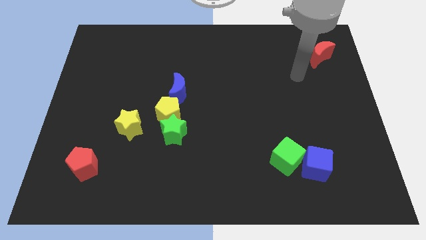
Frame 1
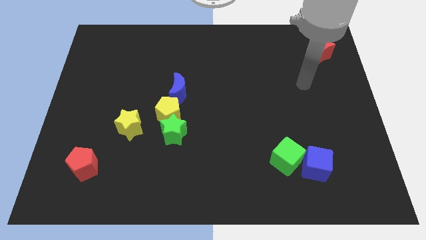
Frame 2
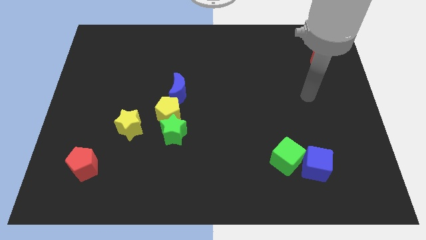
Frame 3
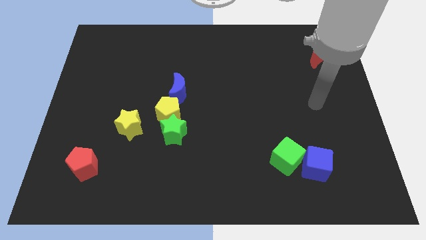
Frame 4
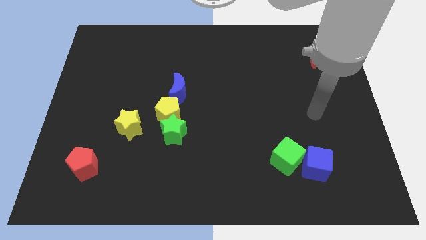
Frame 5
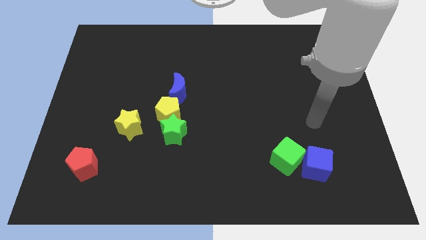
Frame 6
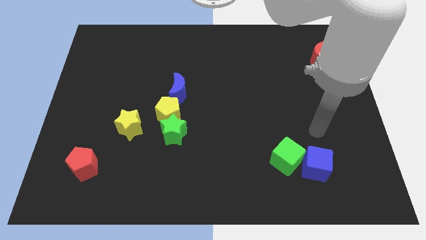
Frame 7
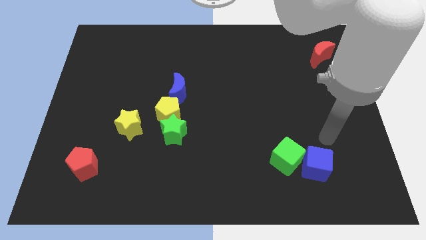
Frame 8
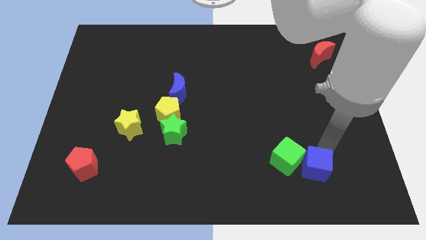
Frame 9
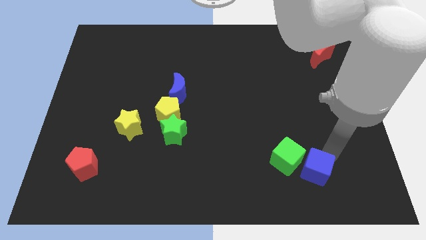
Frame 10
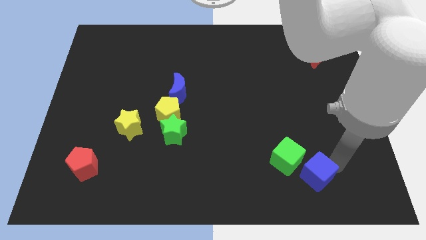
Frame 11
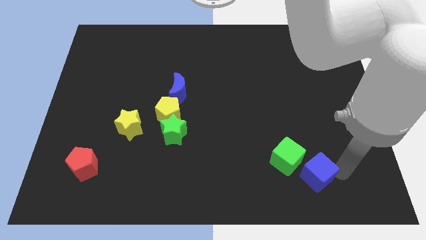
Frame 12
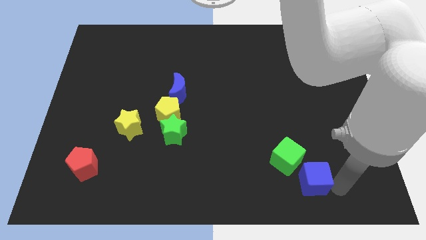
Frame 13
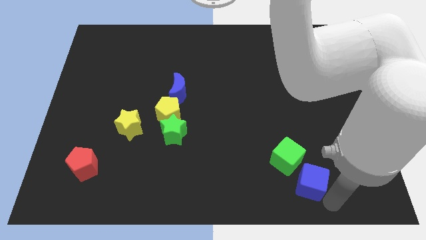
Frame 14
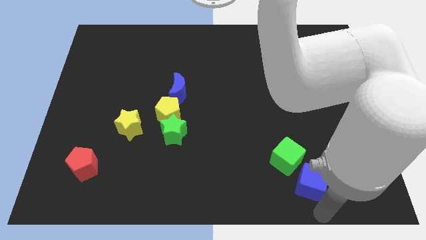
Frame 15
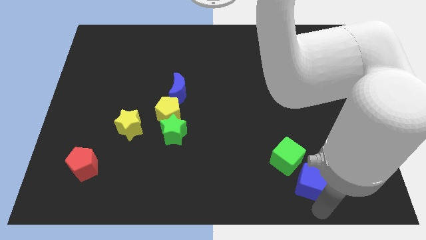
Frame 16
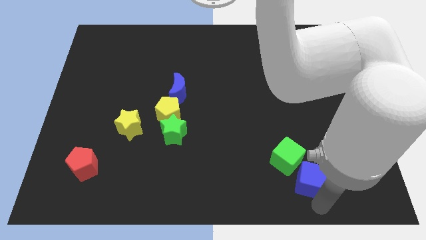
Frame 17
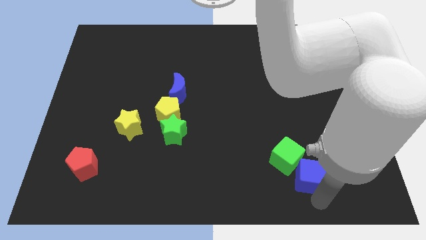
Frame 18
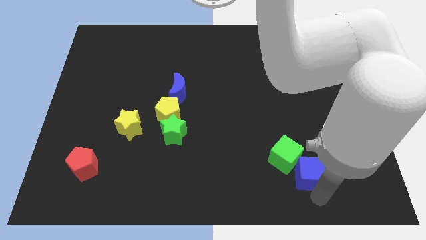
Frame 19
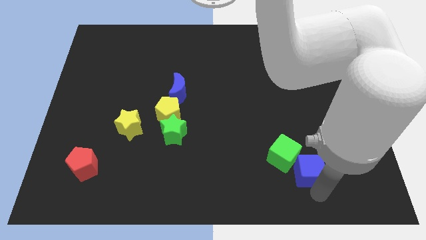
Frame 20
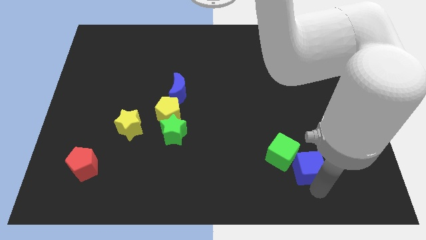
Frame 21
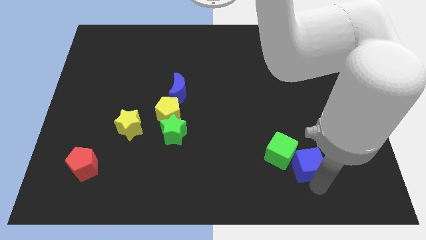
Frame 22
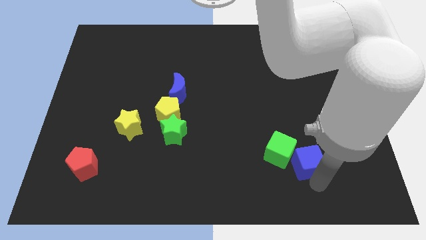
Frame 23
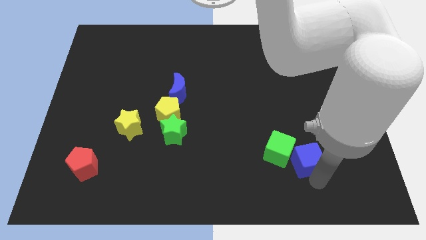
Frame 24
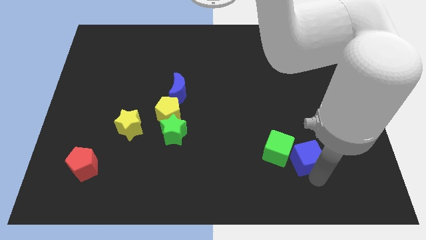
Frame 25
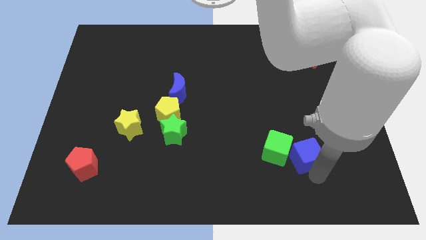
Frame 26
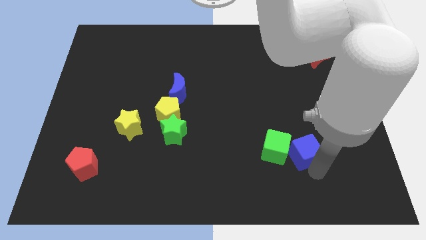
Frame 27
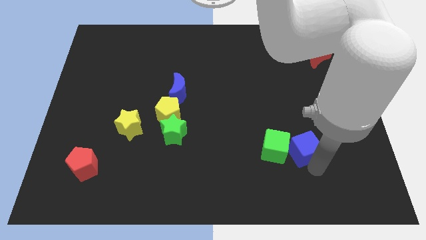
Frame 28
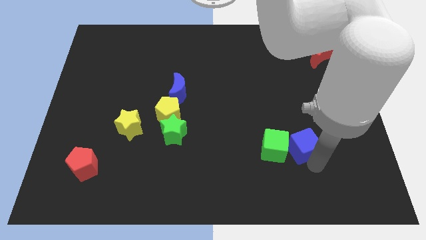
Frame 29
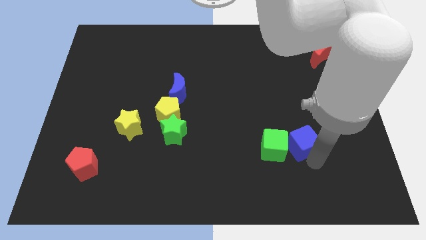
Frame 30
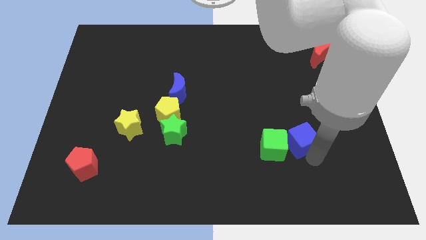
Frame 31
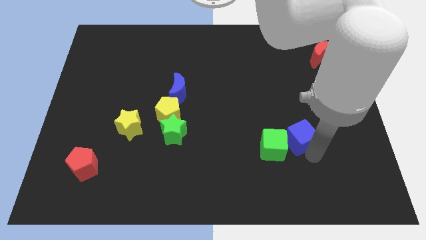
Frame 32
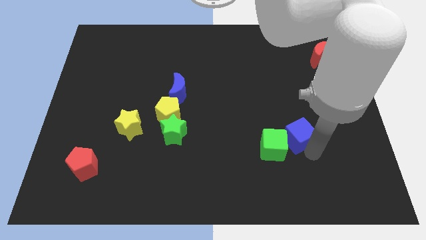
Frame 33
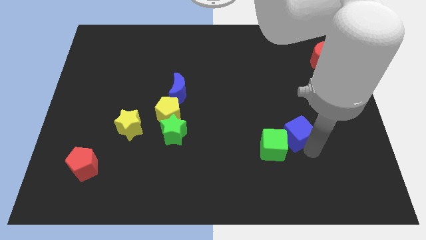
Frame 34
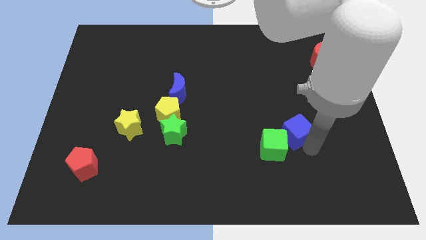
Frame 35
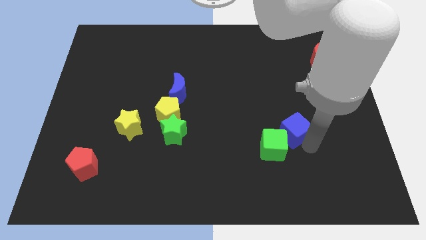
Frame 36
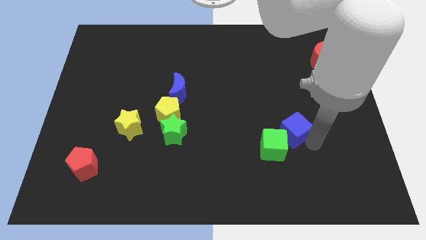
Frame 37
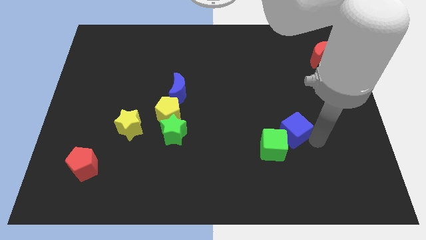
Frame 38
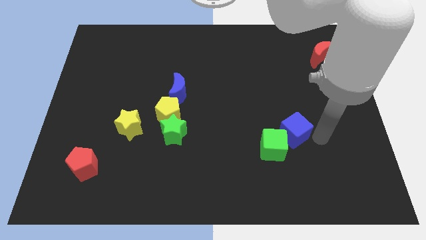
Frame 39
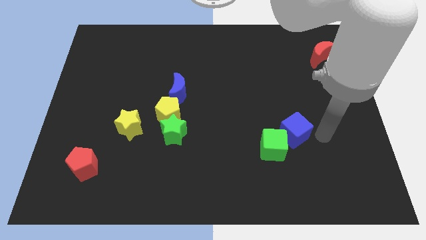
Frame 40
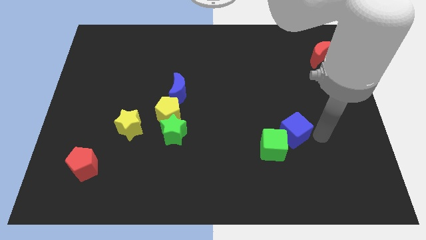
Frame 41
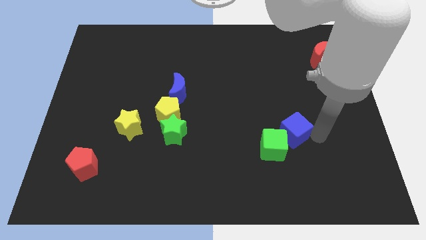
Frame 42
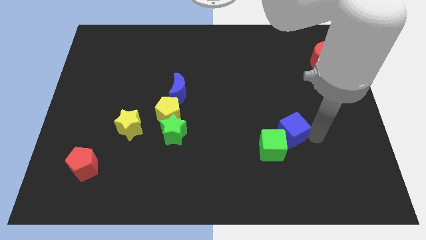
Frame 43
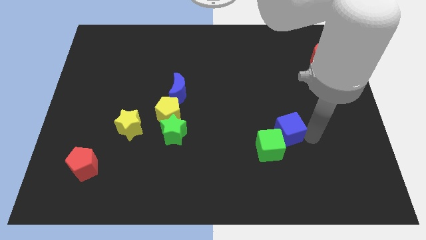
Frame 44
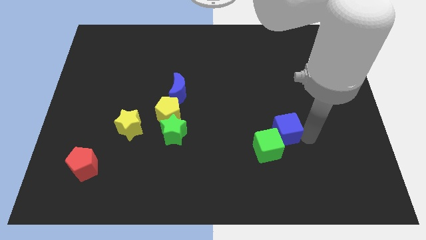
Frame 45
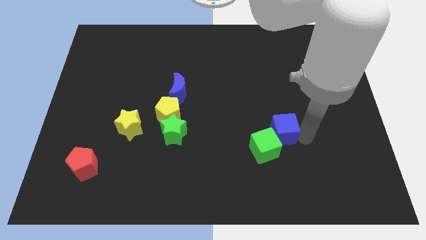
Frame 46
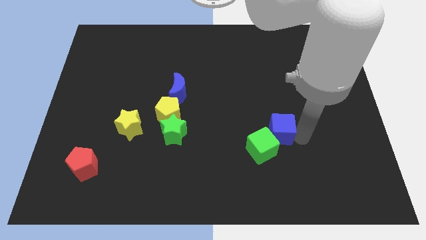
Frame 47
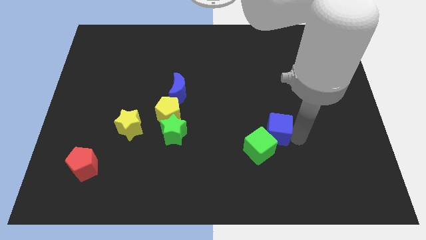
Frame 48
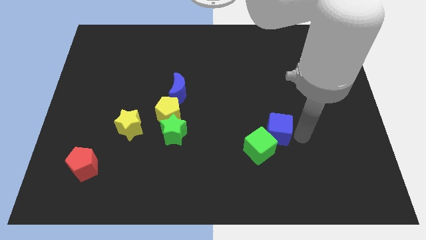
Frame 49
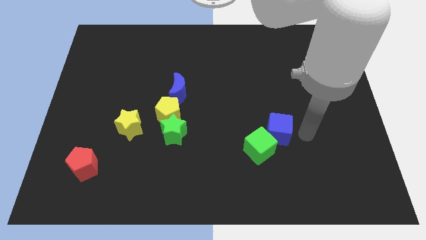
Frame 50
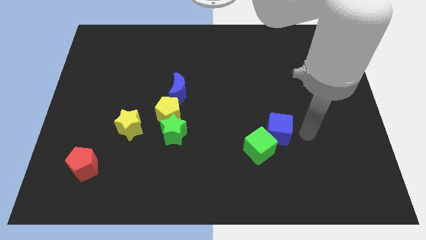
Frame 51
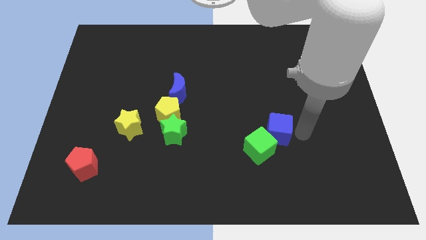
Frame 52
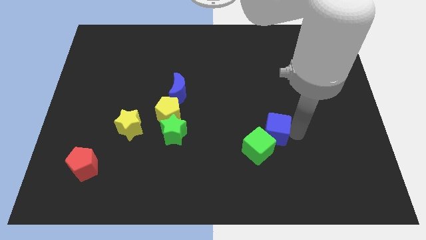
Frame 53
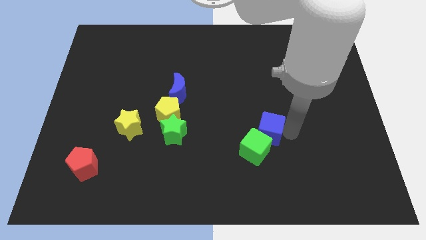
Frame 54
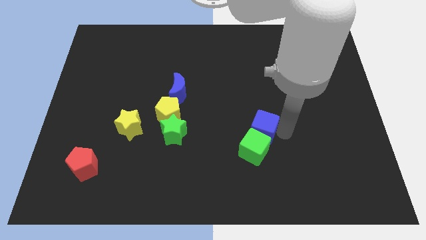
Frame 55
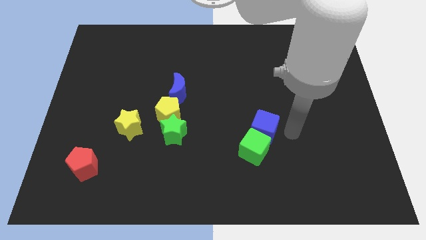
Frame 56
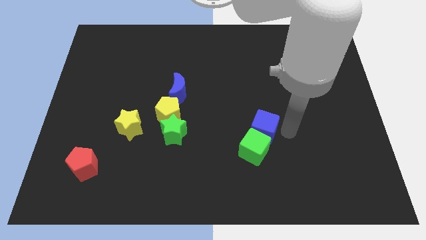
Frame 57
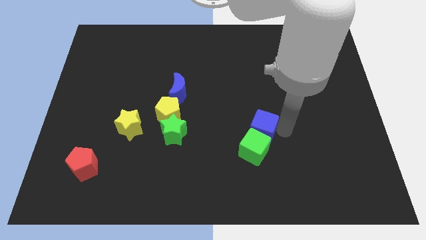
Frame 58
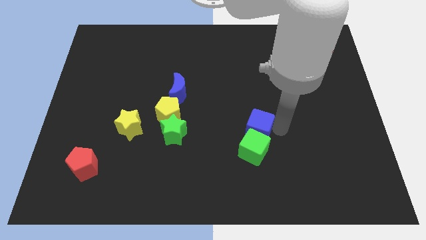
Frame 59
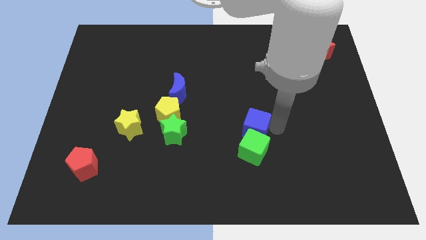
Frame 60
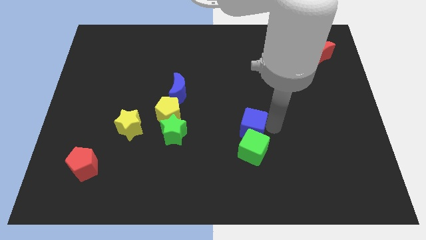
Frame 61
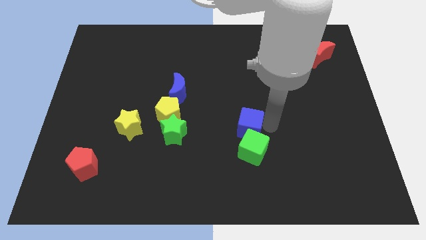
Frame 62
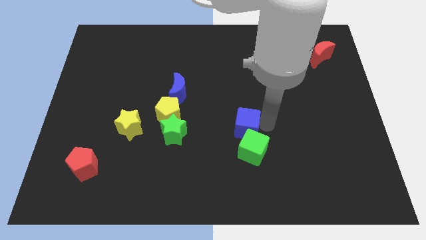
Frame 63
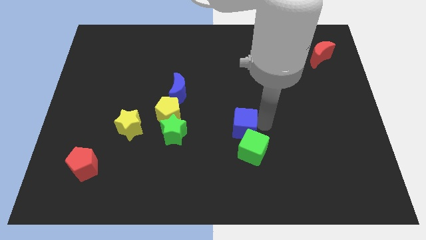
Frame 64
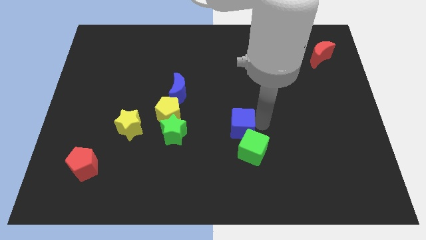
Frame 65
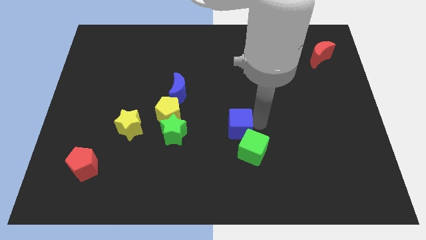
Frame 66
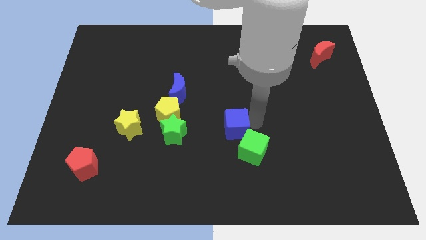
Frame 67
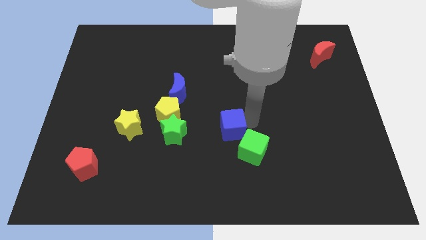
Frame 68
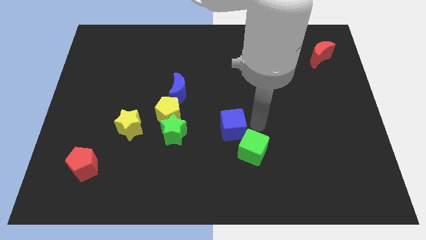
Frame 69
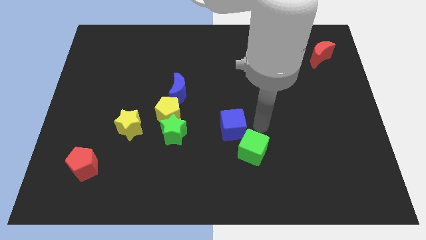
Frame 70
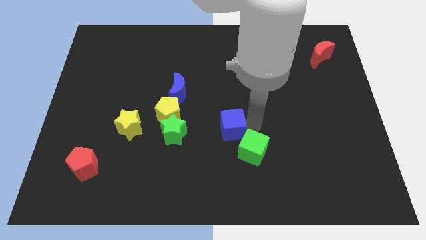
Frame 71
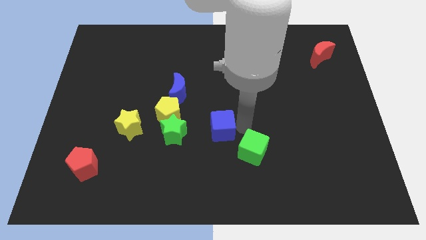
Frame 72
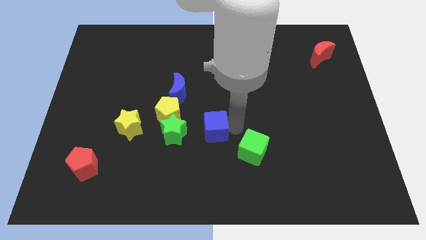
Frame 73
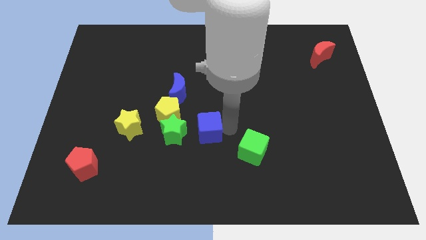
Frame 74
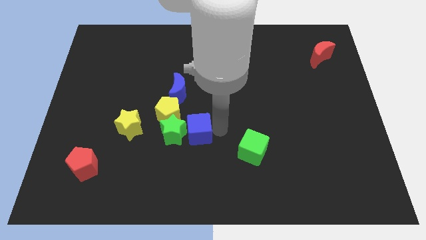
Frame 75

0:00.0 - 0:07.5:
push the blue cube towards the green star
